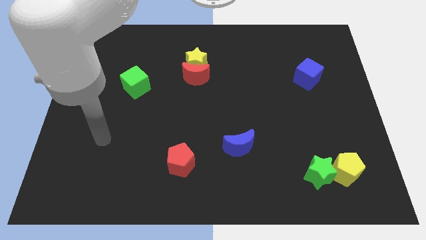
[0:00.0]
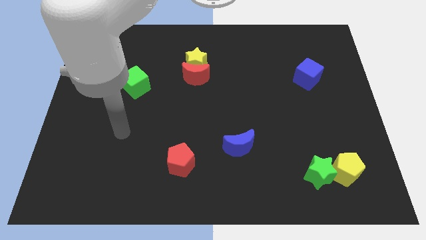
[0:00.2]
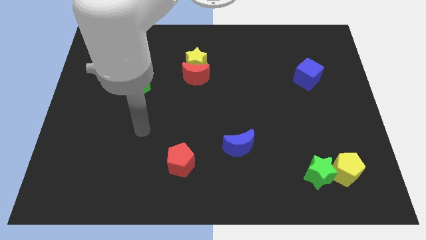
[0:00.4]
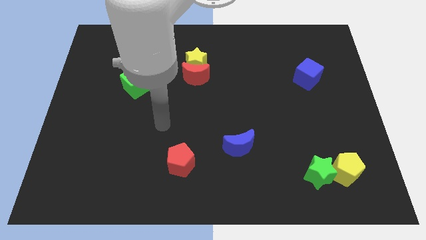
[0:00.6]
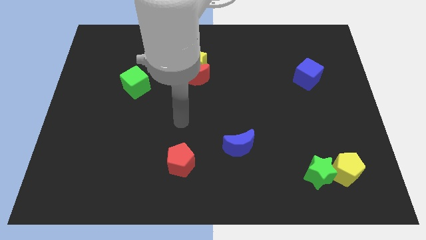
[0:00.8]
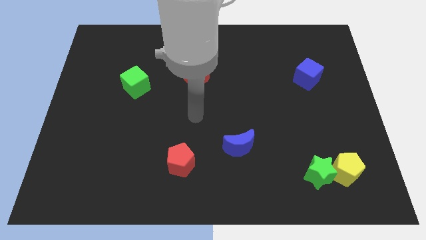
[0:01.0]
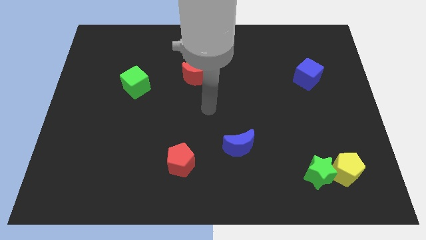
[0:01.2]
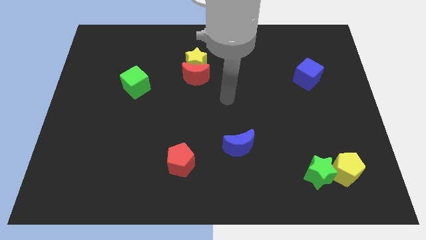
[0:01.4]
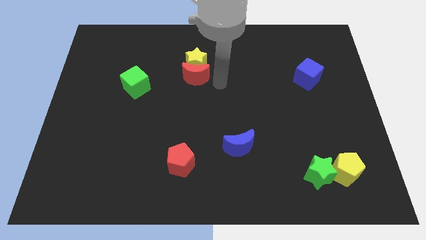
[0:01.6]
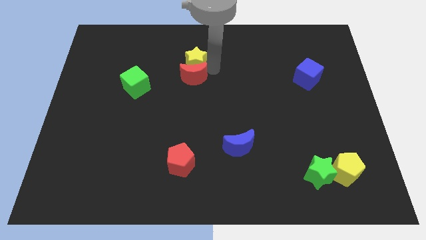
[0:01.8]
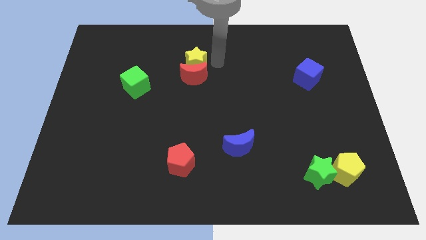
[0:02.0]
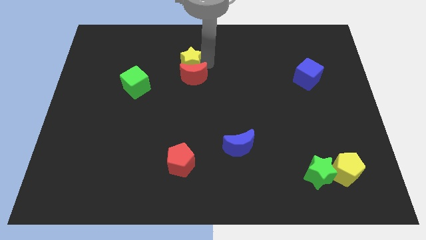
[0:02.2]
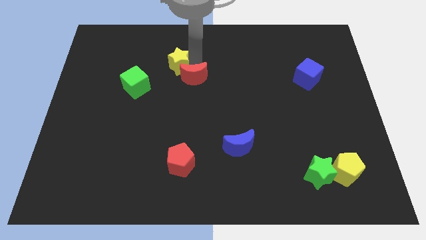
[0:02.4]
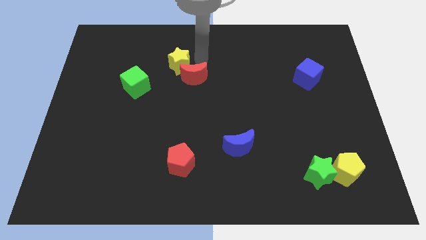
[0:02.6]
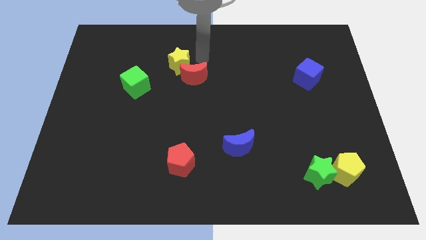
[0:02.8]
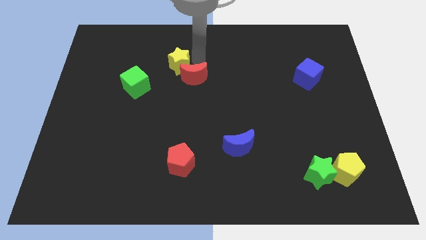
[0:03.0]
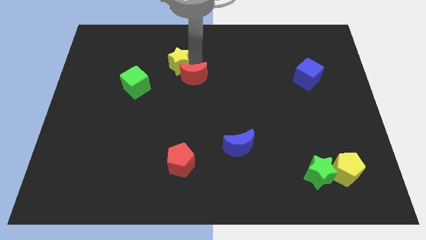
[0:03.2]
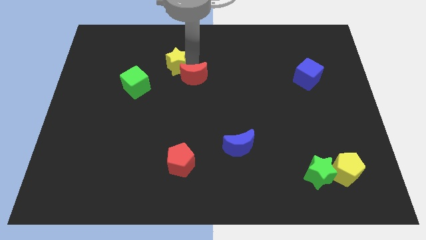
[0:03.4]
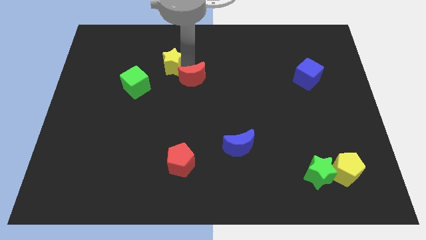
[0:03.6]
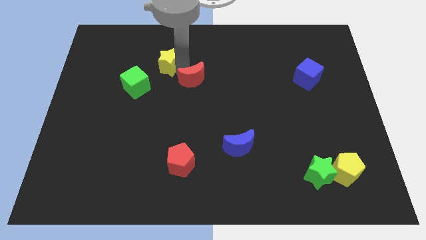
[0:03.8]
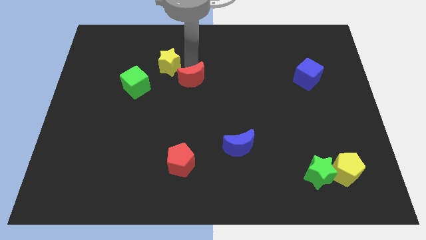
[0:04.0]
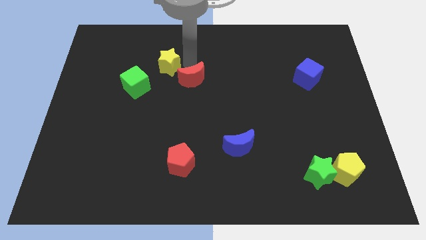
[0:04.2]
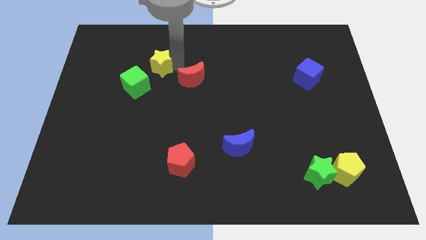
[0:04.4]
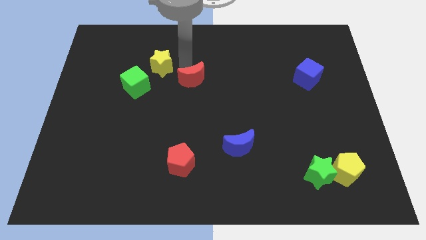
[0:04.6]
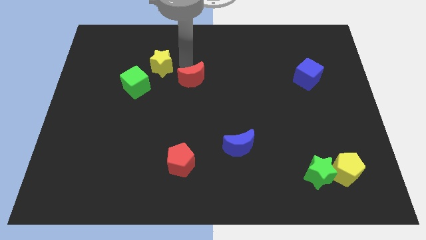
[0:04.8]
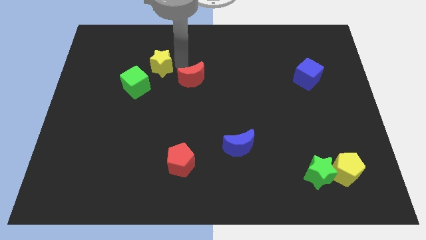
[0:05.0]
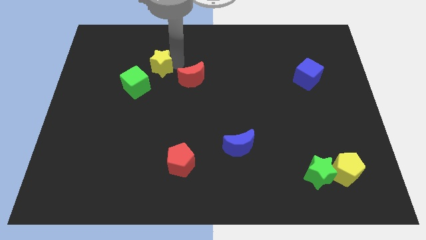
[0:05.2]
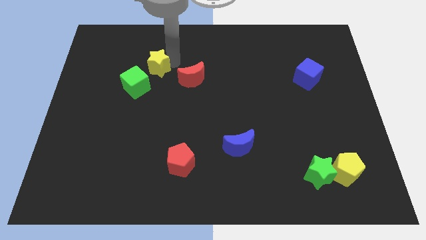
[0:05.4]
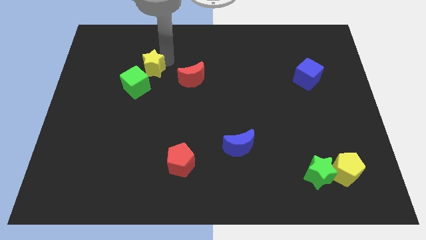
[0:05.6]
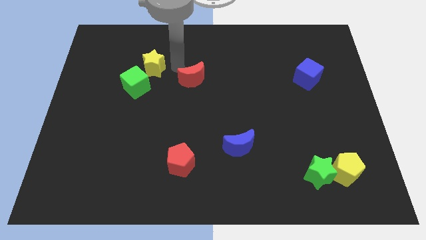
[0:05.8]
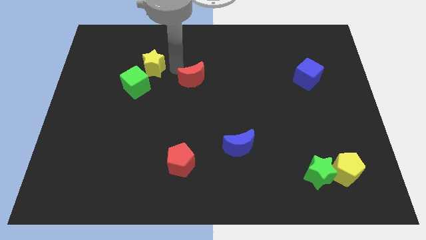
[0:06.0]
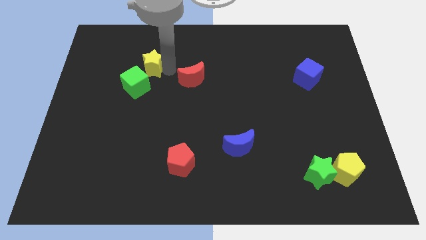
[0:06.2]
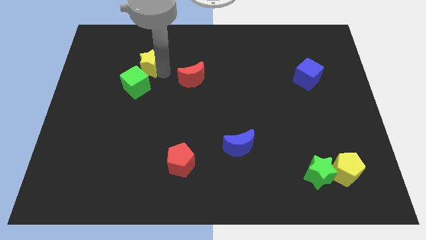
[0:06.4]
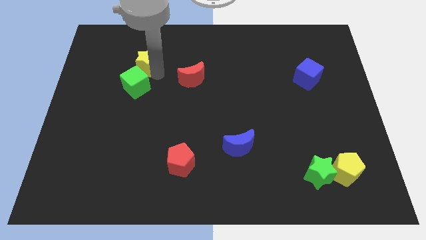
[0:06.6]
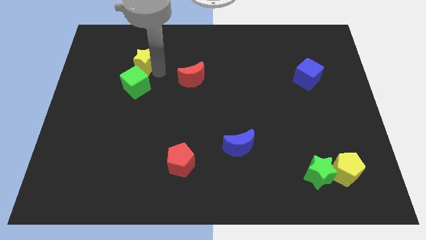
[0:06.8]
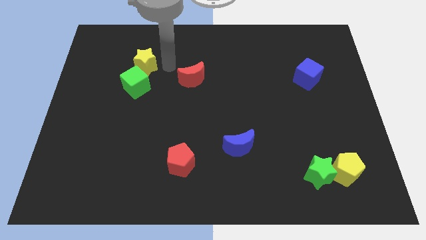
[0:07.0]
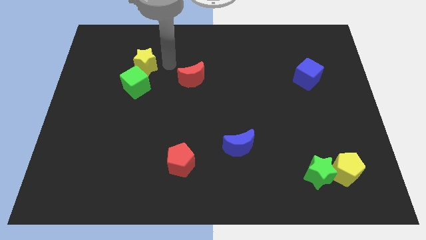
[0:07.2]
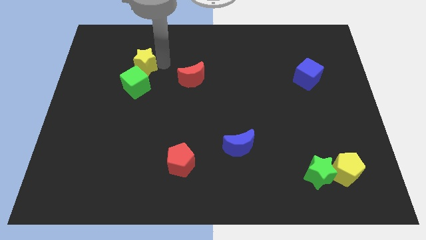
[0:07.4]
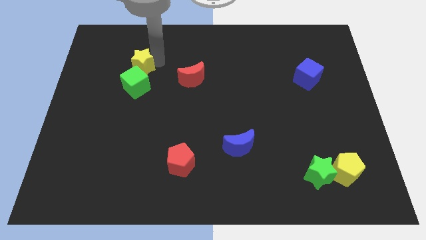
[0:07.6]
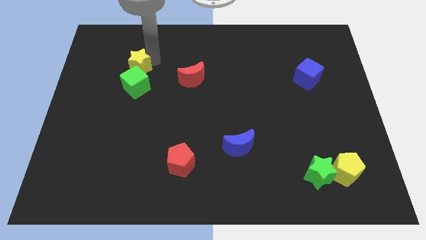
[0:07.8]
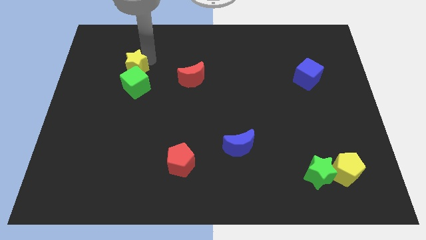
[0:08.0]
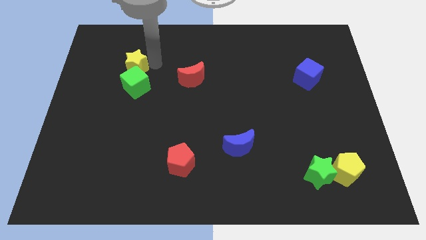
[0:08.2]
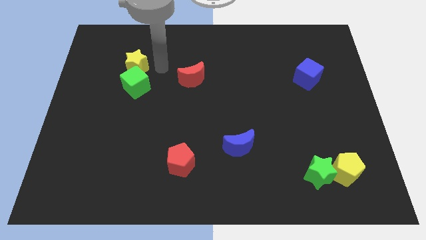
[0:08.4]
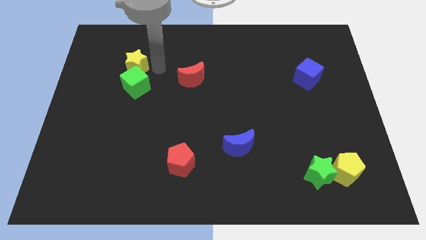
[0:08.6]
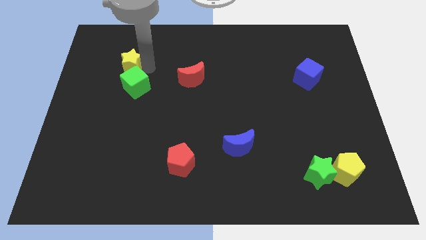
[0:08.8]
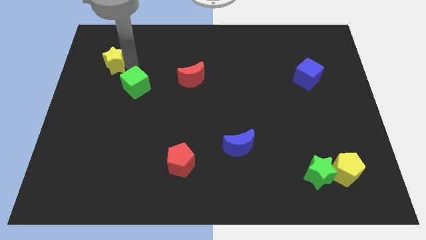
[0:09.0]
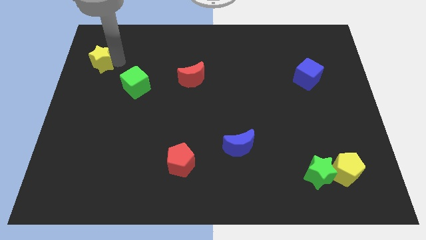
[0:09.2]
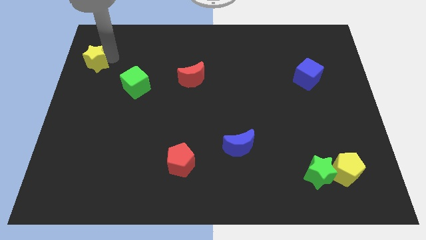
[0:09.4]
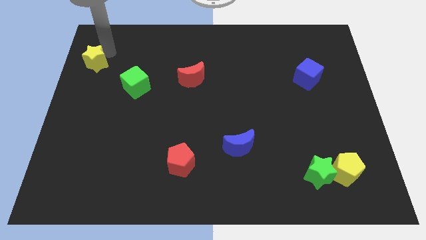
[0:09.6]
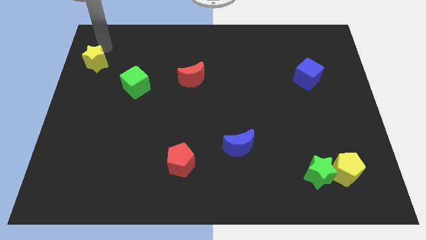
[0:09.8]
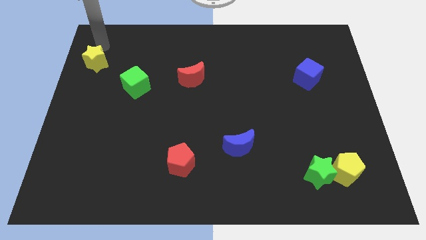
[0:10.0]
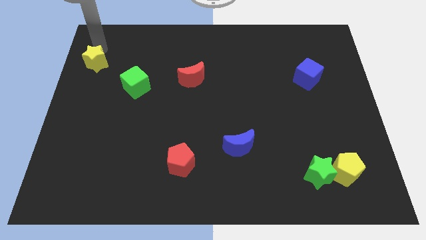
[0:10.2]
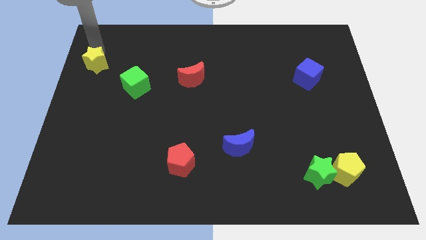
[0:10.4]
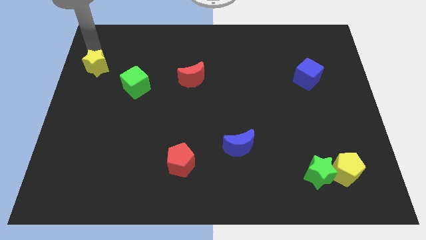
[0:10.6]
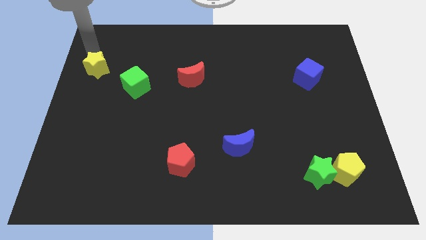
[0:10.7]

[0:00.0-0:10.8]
move the yellow star to the left side

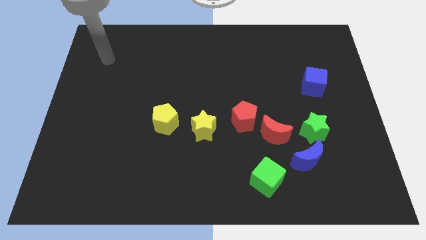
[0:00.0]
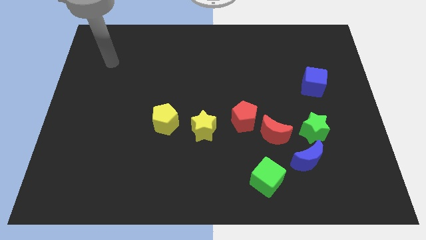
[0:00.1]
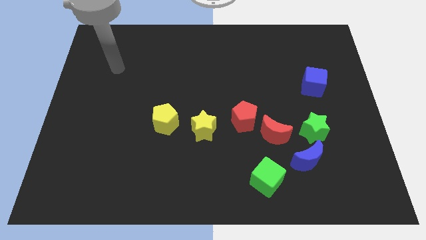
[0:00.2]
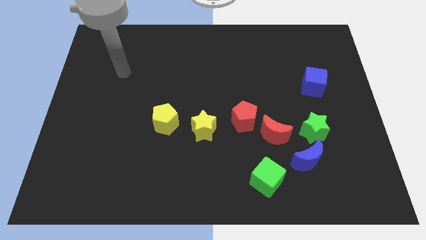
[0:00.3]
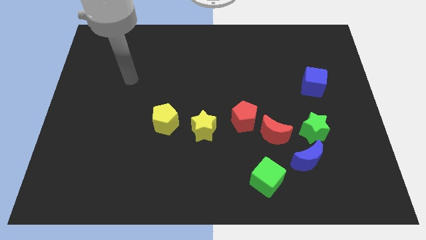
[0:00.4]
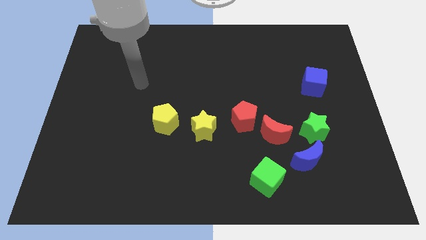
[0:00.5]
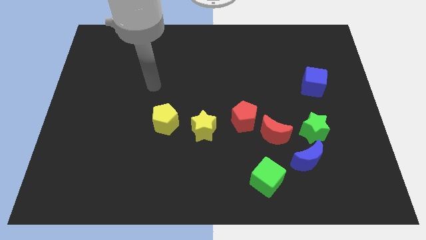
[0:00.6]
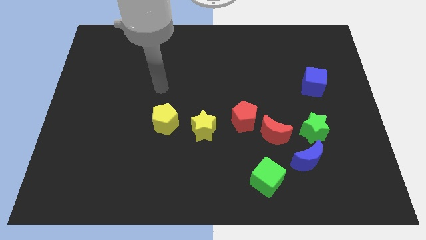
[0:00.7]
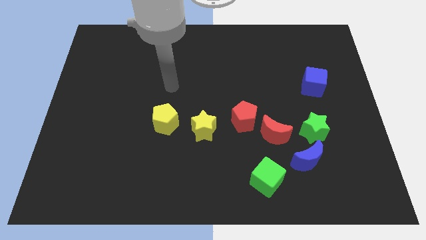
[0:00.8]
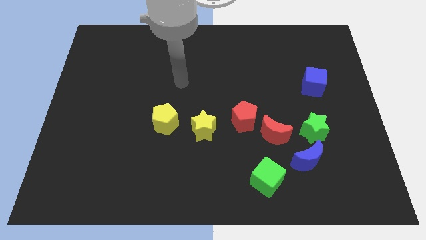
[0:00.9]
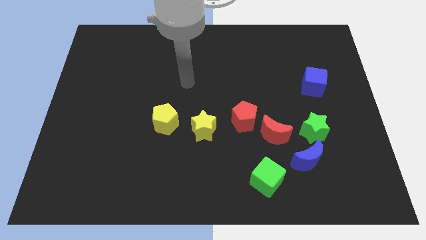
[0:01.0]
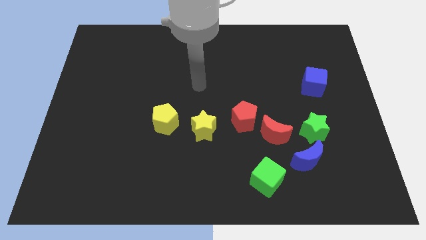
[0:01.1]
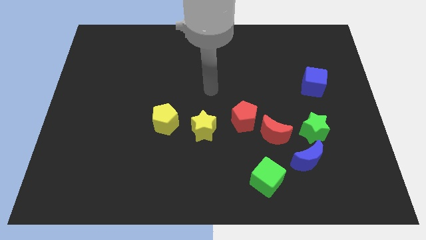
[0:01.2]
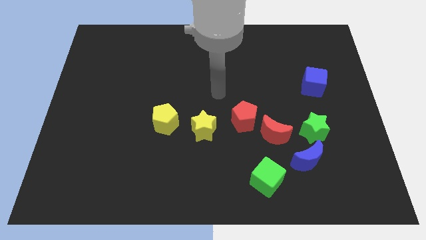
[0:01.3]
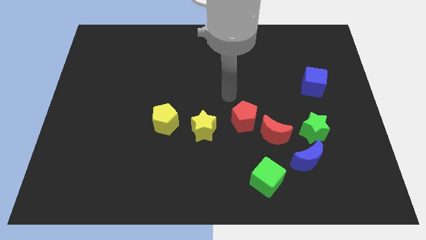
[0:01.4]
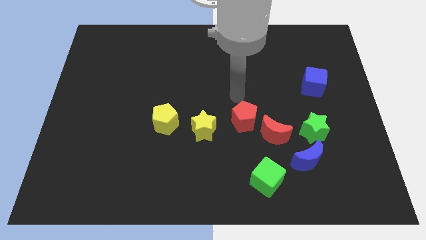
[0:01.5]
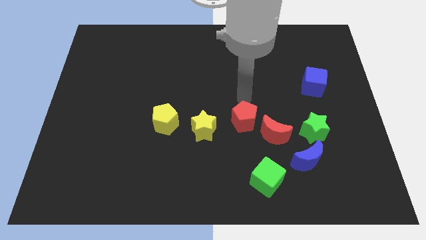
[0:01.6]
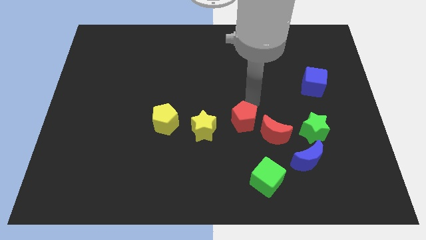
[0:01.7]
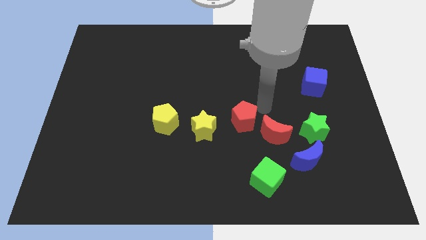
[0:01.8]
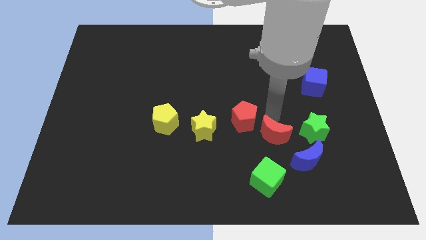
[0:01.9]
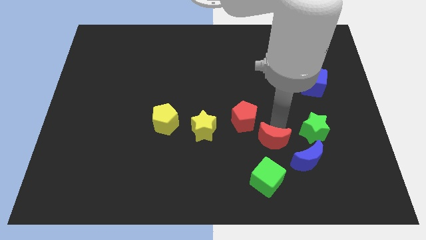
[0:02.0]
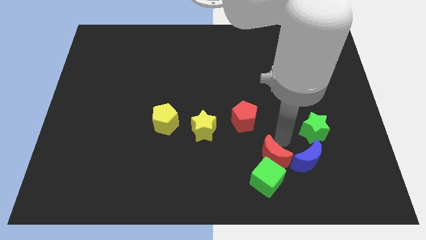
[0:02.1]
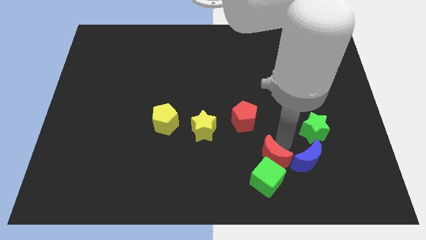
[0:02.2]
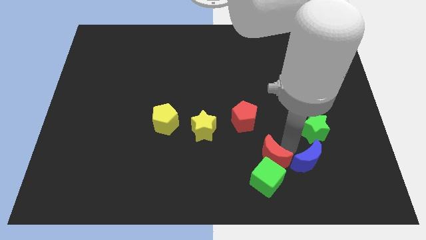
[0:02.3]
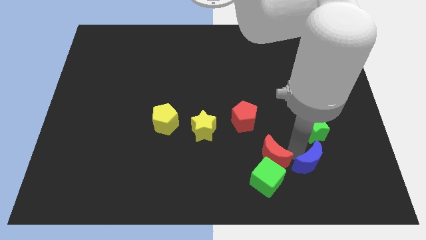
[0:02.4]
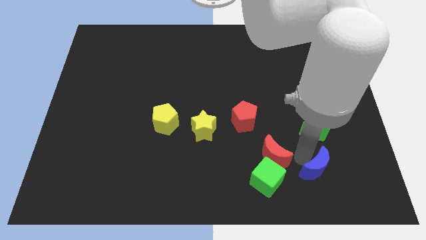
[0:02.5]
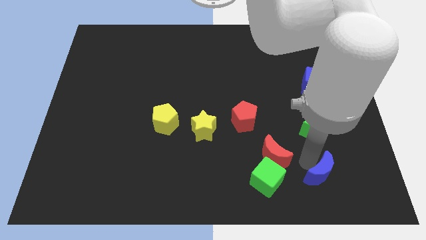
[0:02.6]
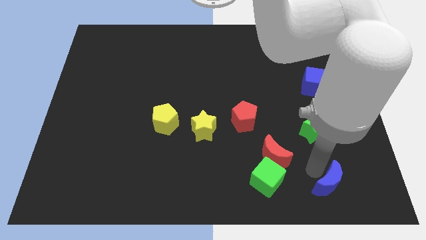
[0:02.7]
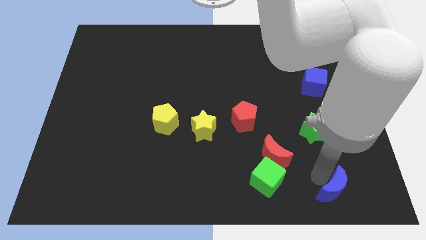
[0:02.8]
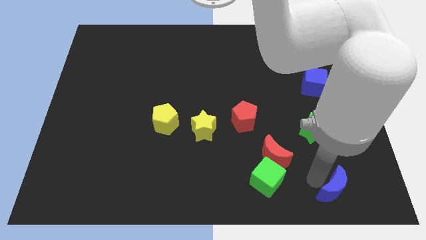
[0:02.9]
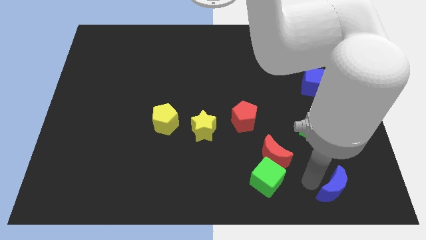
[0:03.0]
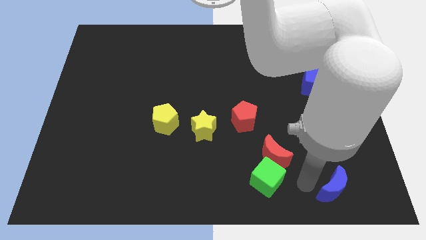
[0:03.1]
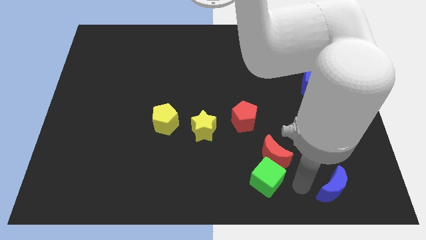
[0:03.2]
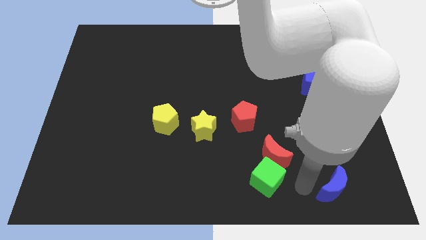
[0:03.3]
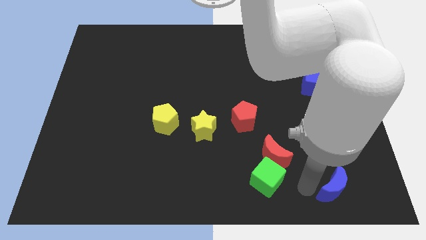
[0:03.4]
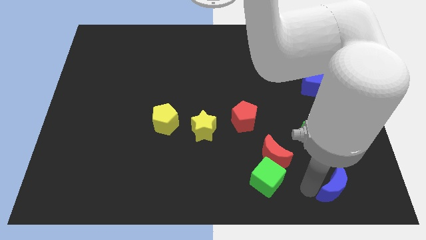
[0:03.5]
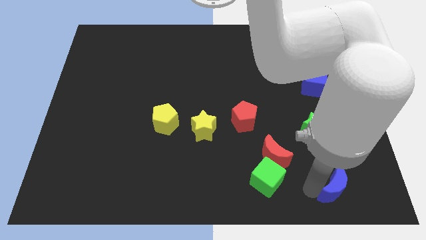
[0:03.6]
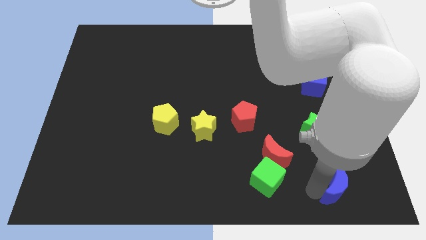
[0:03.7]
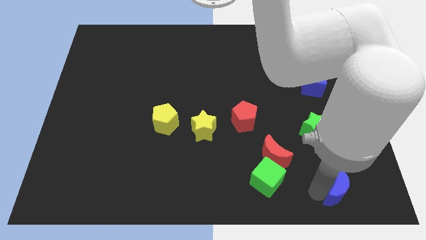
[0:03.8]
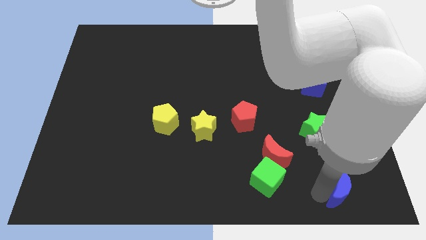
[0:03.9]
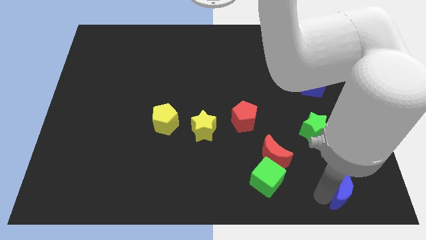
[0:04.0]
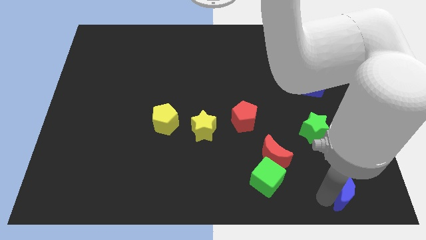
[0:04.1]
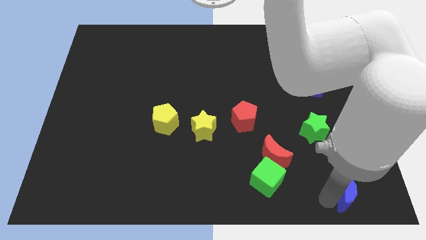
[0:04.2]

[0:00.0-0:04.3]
put the blue moon to the bottom right of the board
